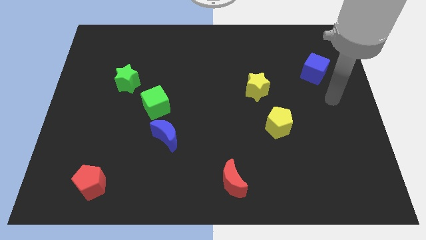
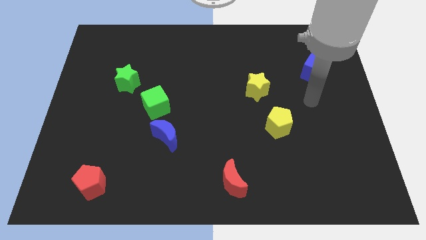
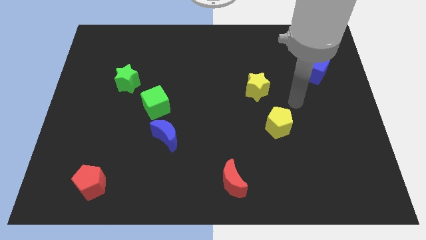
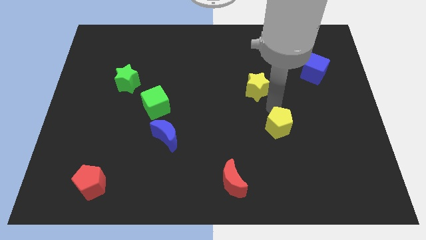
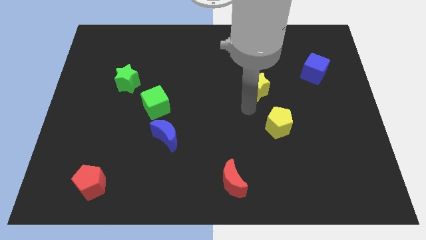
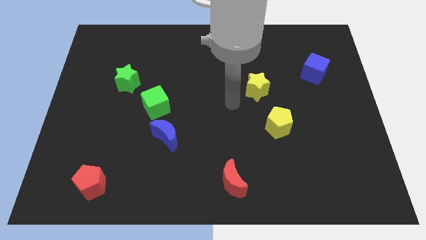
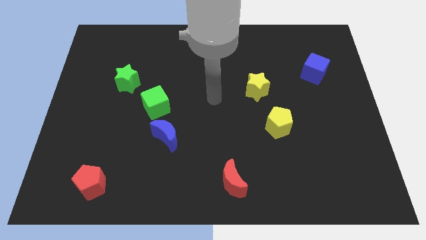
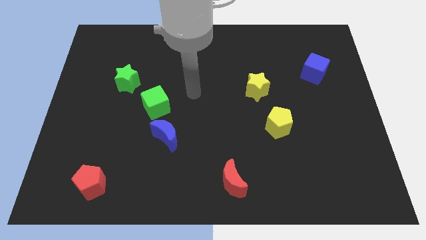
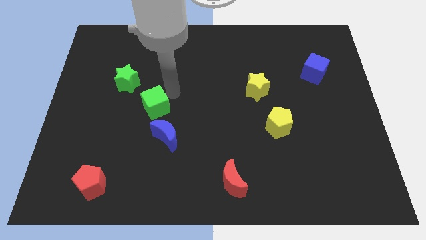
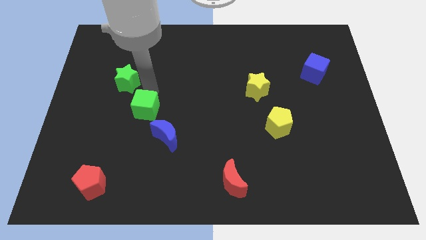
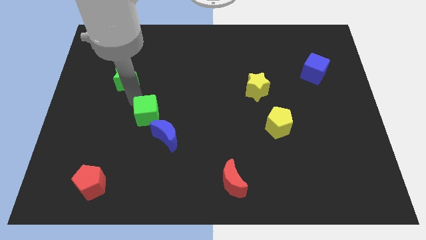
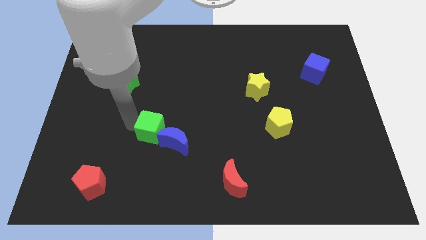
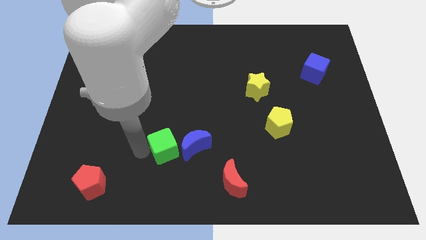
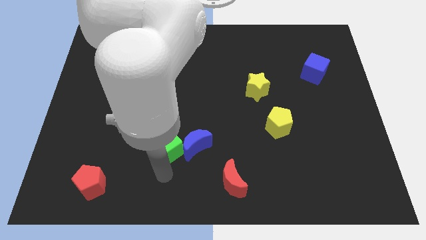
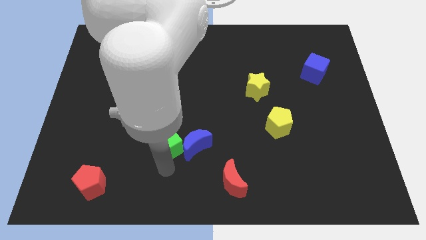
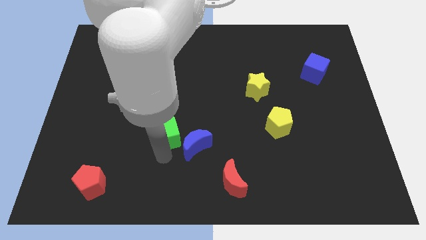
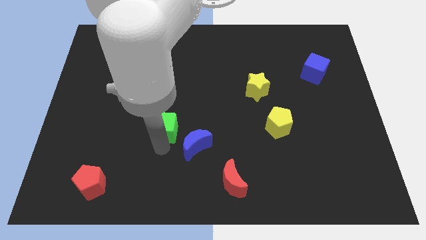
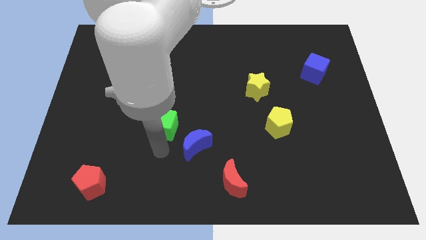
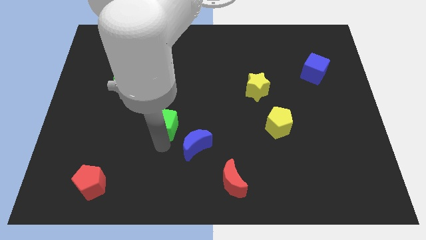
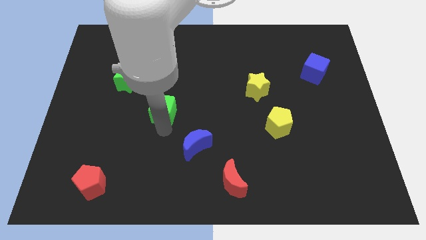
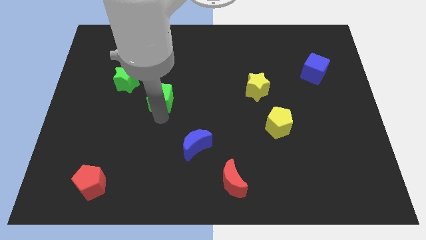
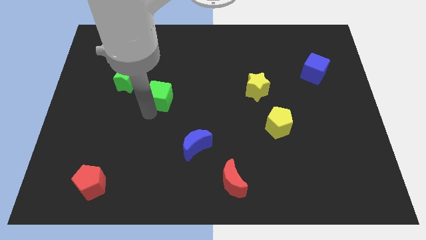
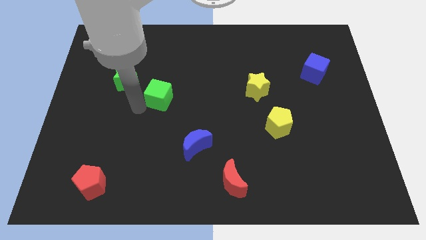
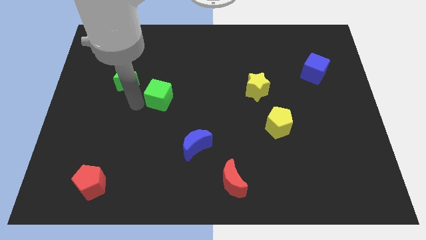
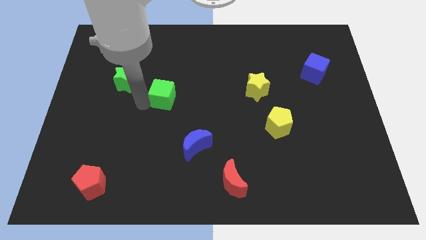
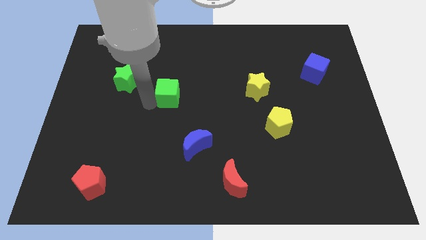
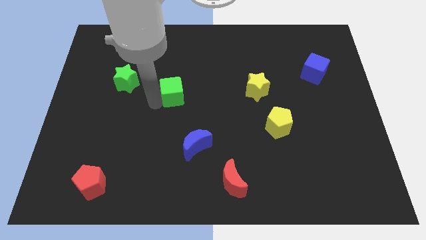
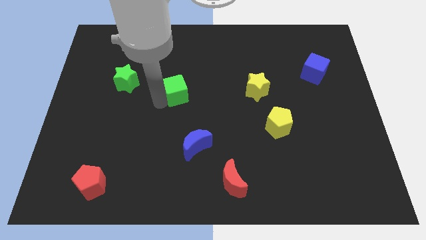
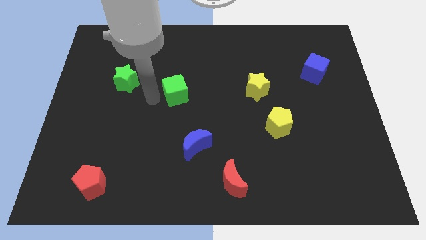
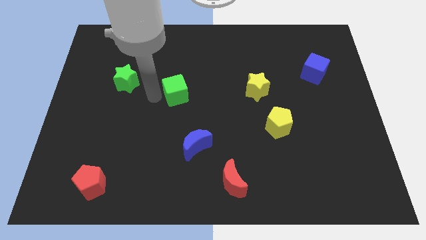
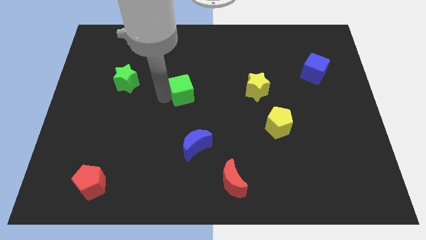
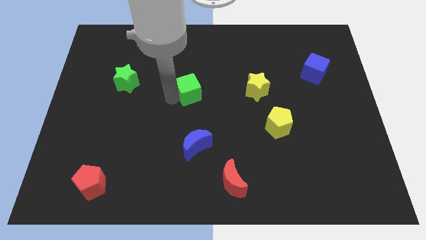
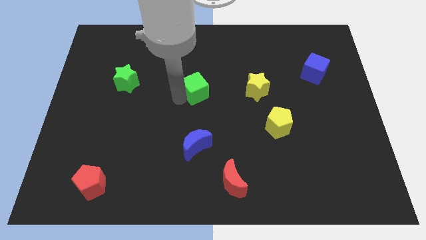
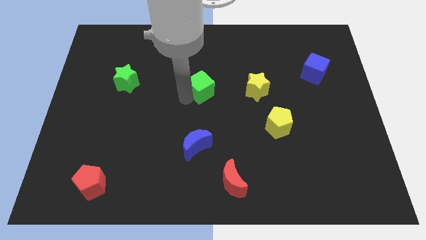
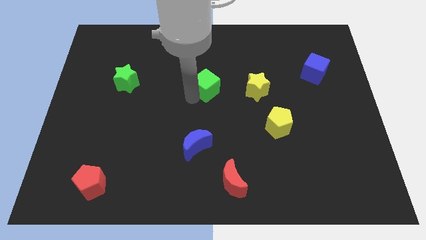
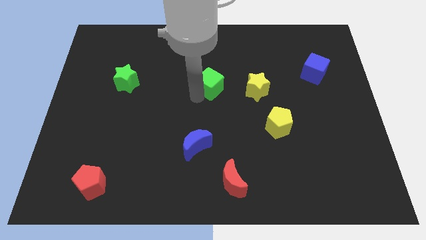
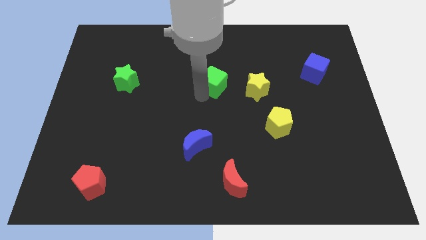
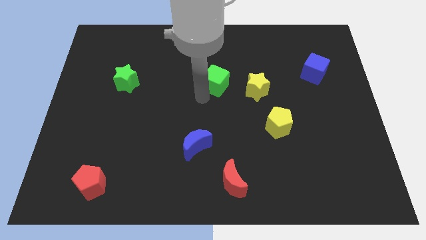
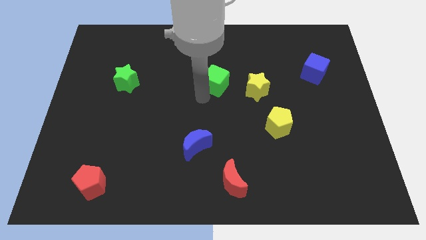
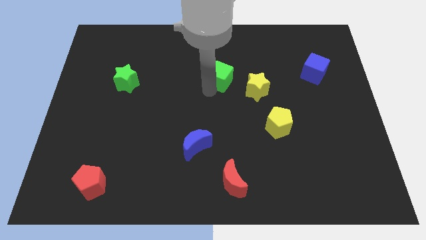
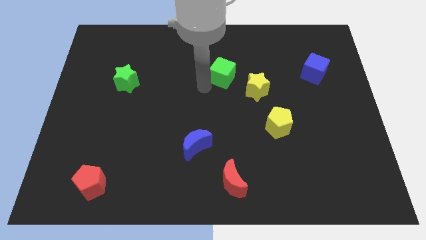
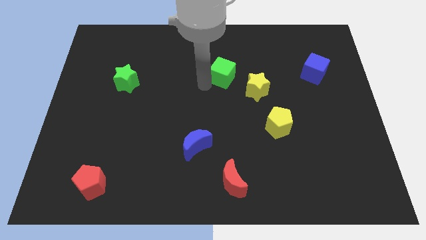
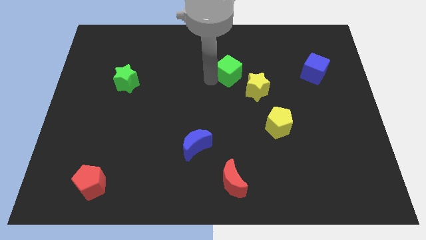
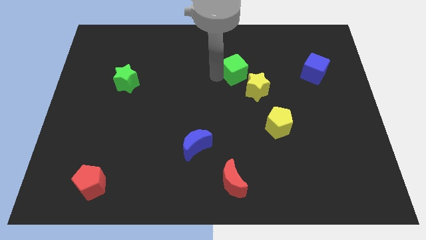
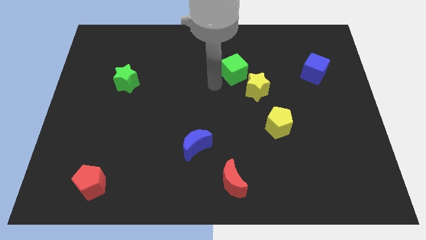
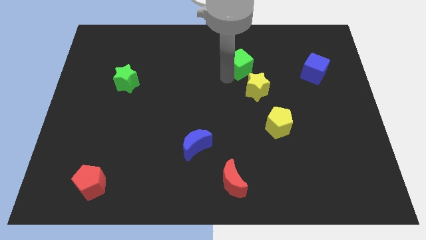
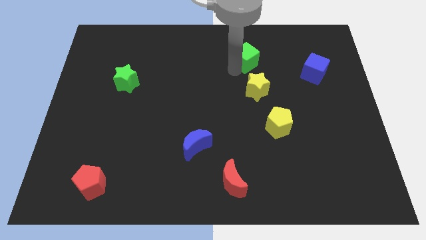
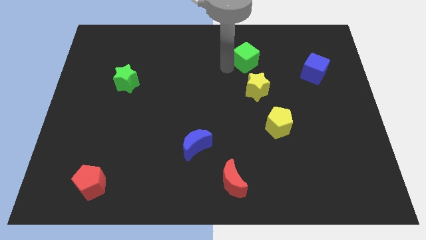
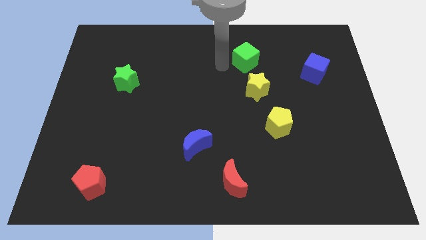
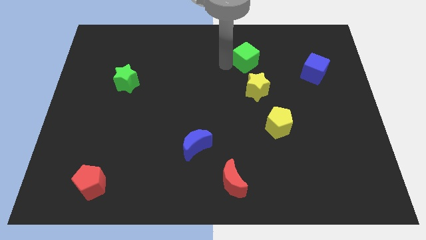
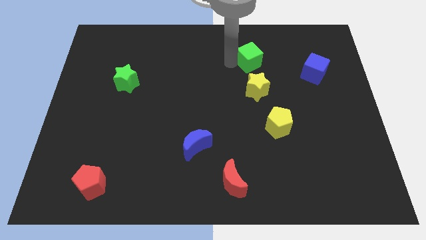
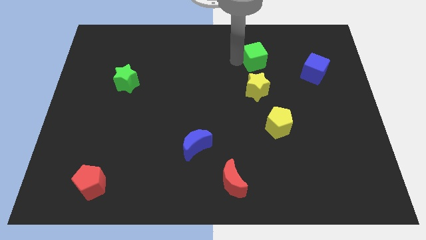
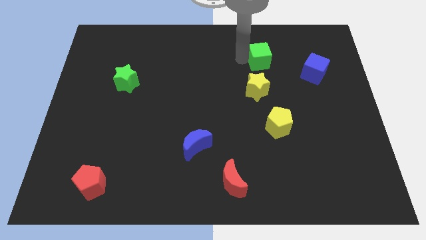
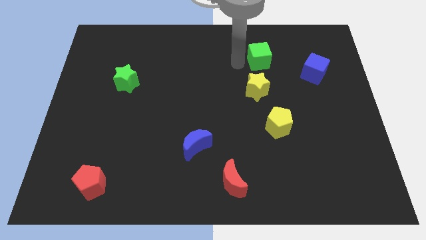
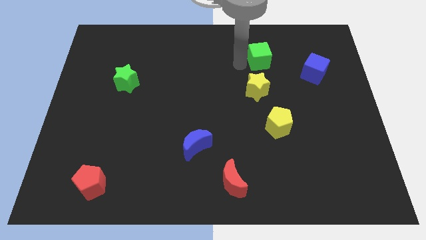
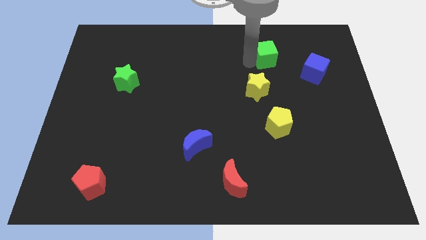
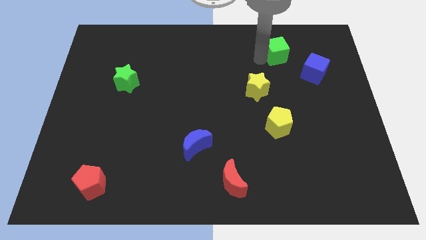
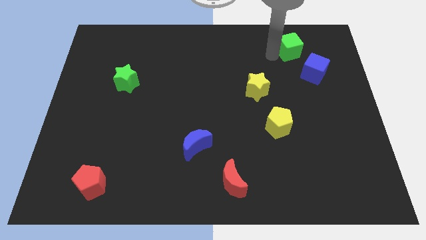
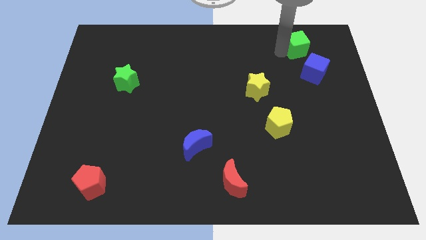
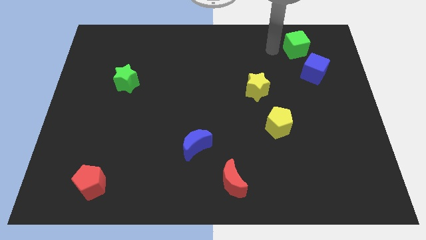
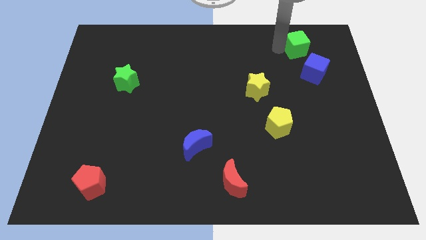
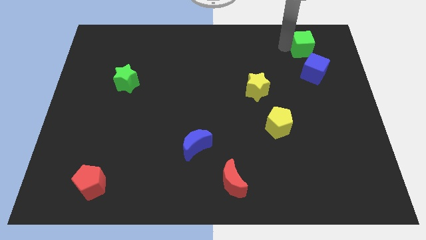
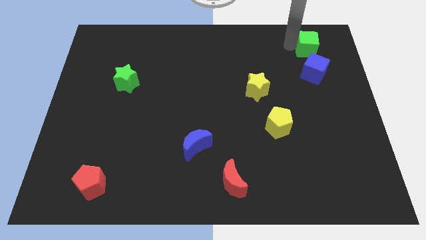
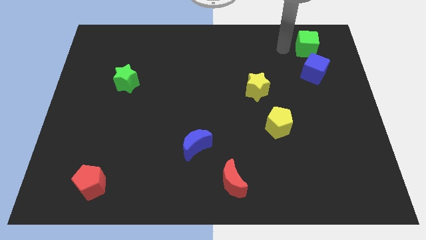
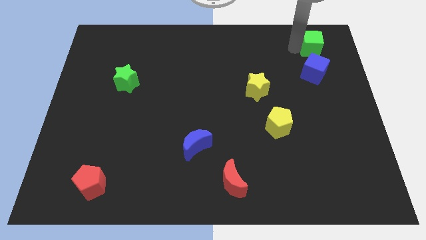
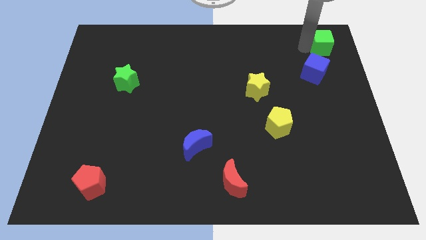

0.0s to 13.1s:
put the green cube to the top right of the board

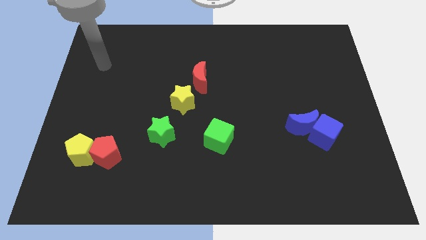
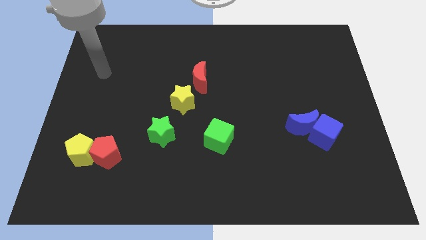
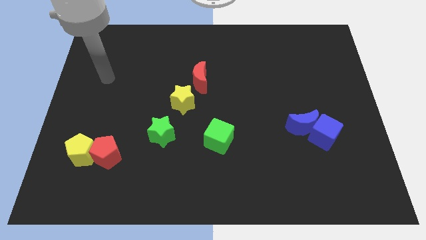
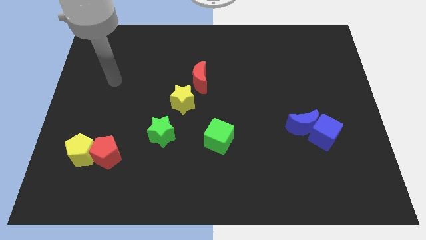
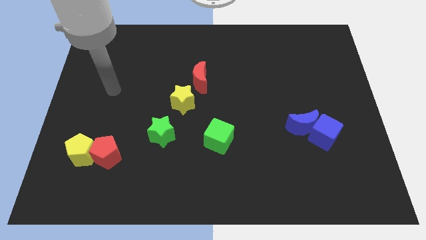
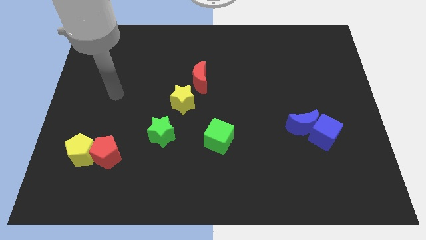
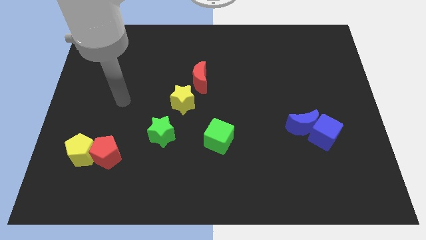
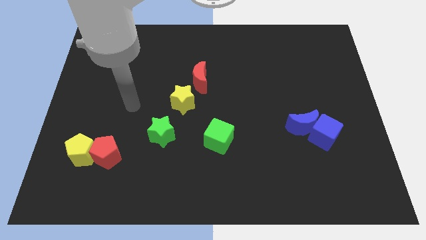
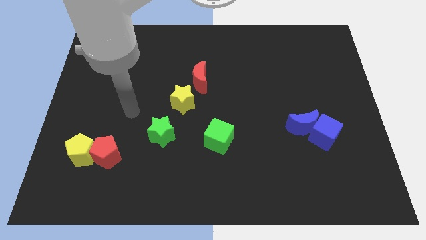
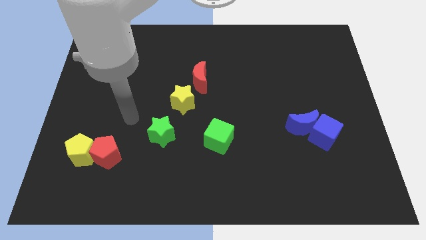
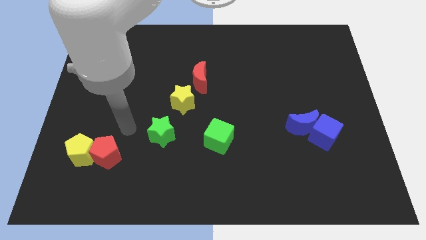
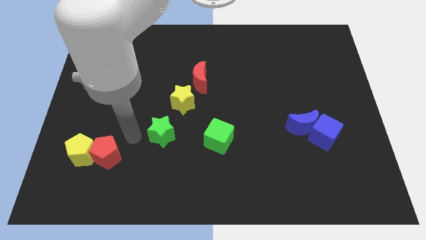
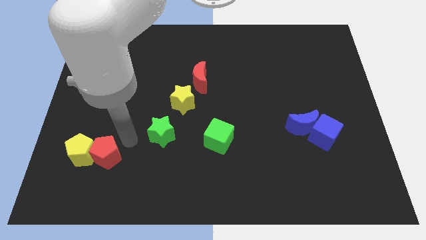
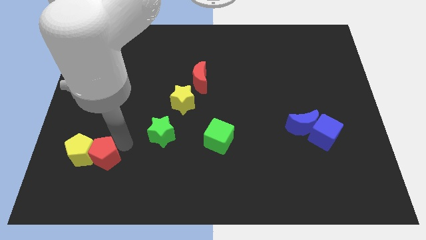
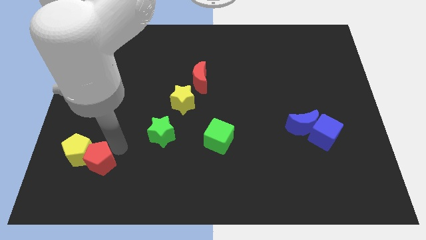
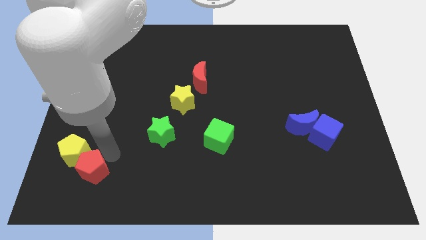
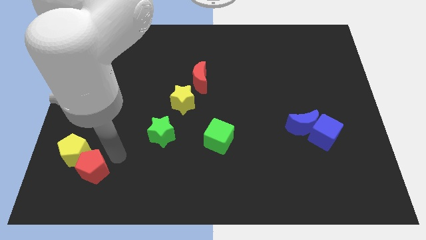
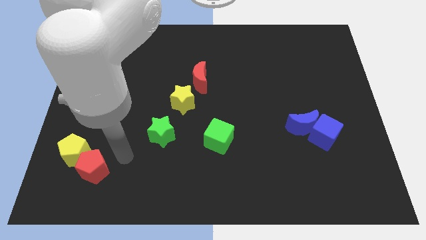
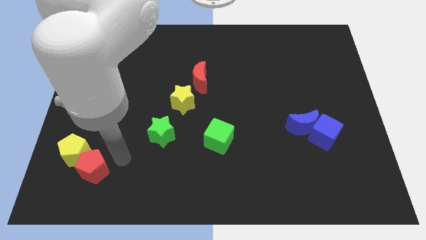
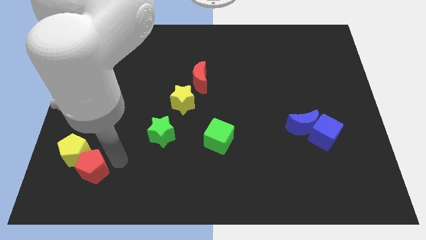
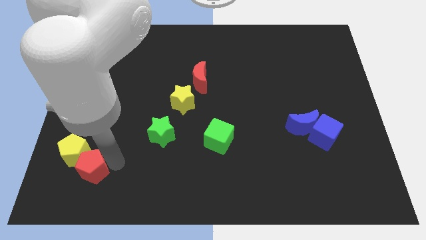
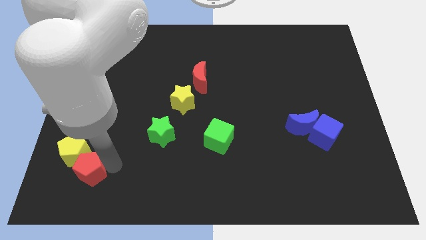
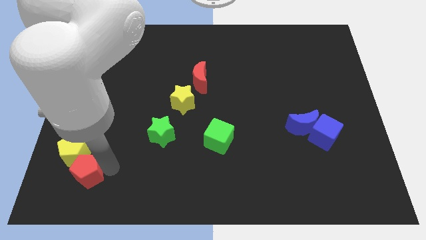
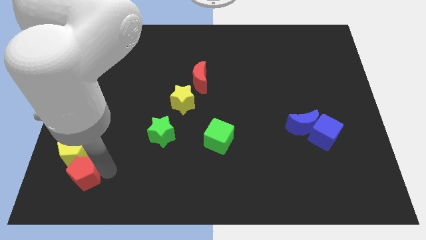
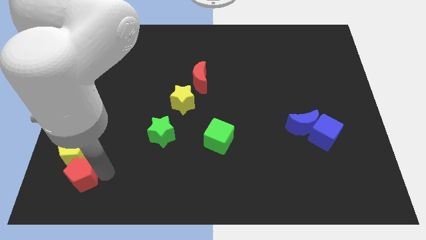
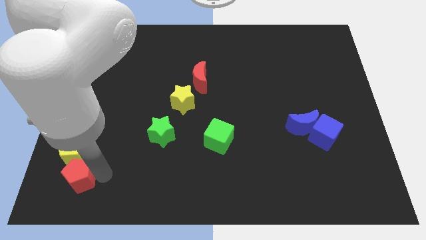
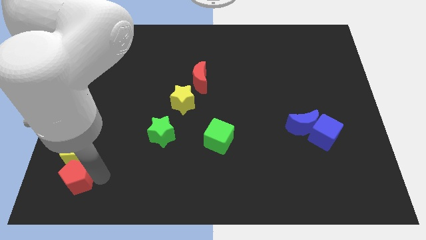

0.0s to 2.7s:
slide the red pentagon to the bottom left of the board
